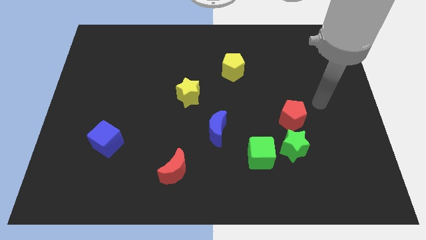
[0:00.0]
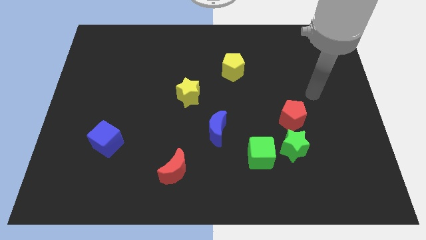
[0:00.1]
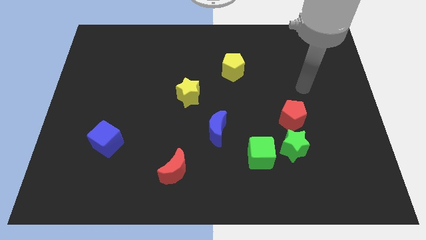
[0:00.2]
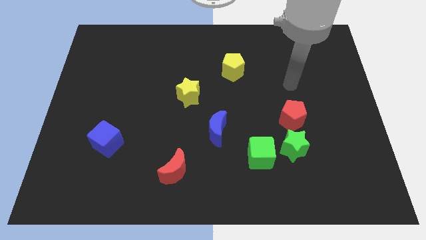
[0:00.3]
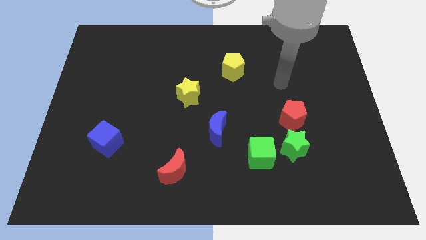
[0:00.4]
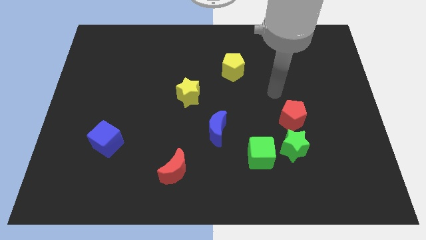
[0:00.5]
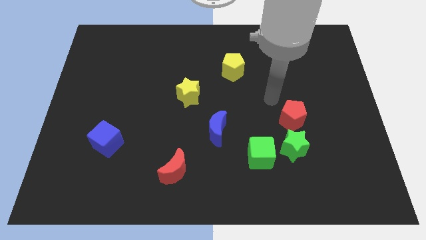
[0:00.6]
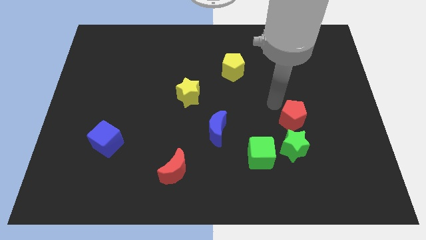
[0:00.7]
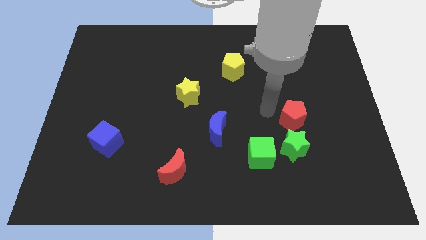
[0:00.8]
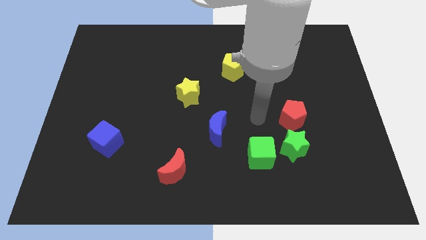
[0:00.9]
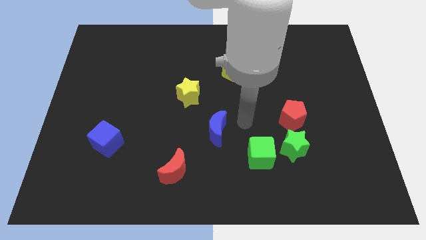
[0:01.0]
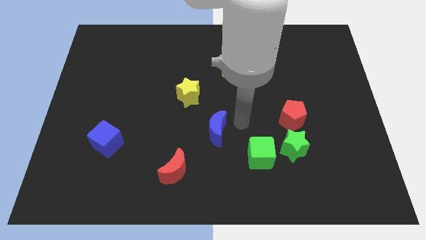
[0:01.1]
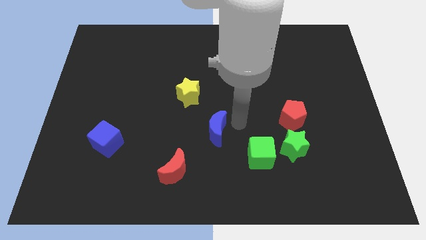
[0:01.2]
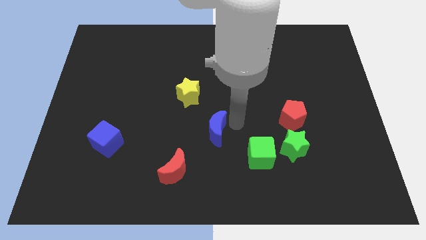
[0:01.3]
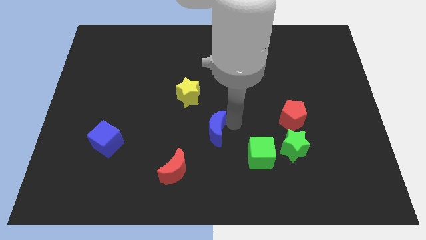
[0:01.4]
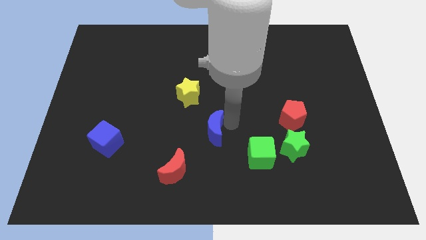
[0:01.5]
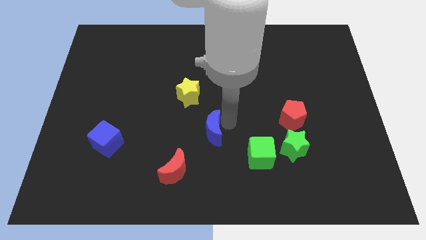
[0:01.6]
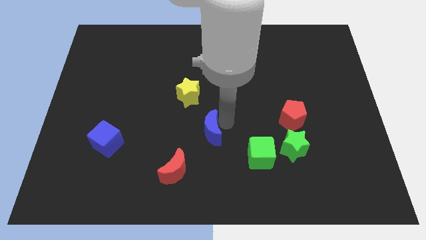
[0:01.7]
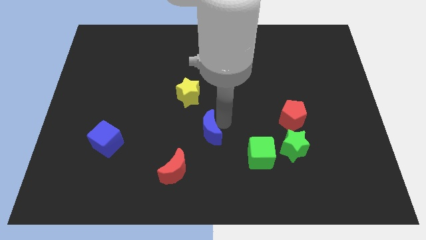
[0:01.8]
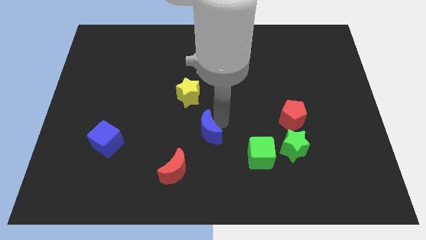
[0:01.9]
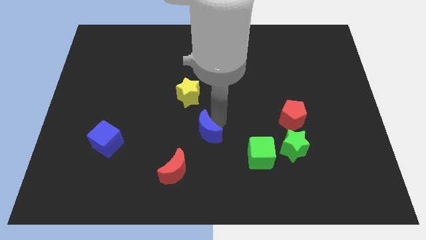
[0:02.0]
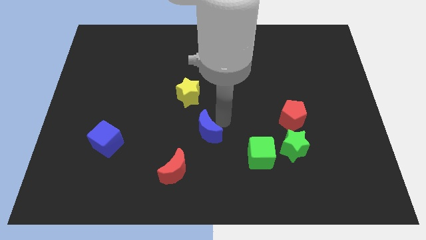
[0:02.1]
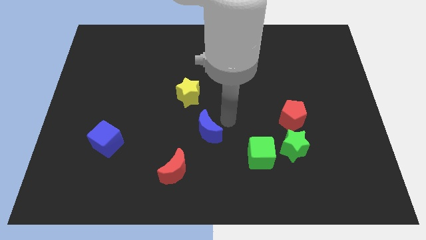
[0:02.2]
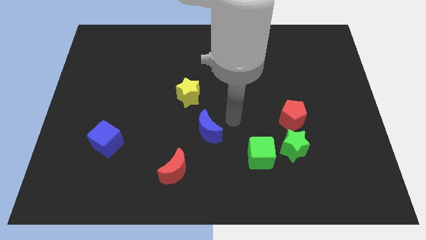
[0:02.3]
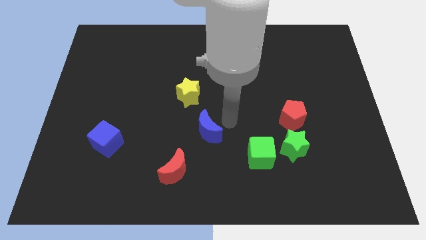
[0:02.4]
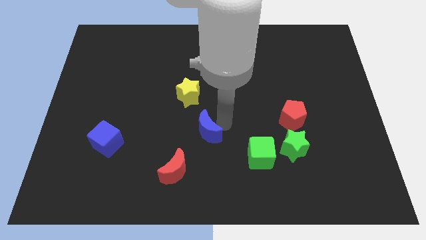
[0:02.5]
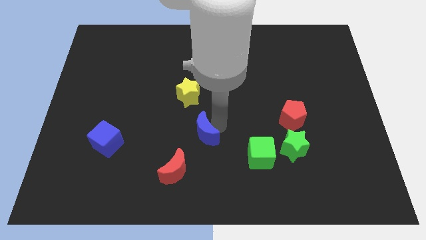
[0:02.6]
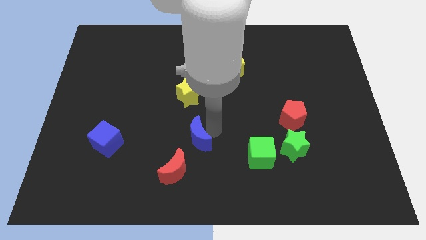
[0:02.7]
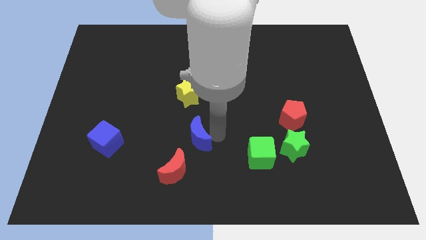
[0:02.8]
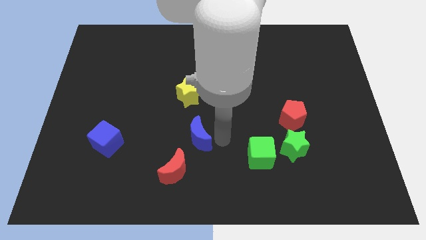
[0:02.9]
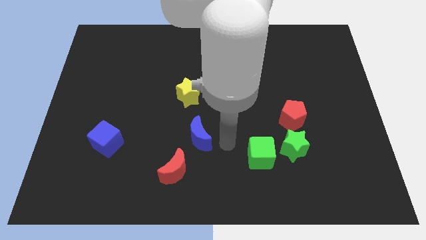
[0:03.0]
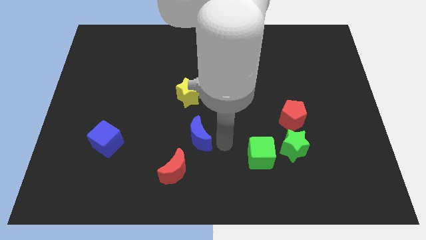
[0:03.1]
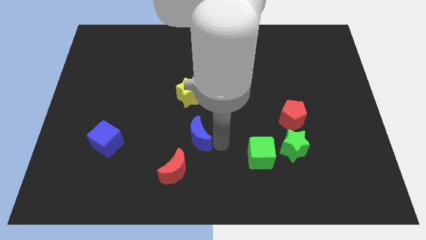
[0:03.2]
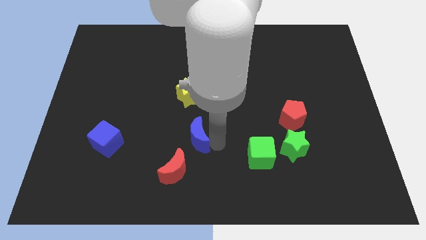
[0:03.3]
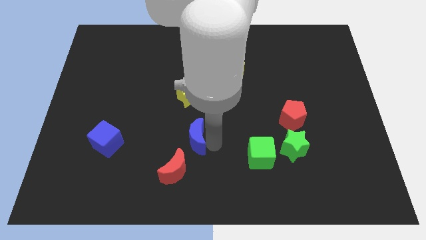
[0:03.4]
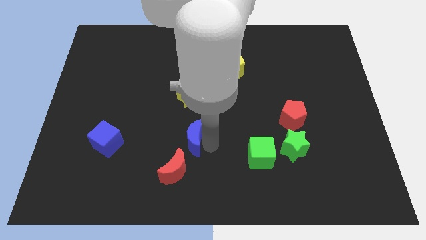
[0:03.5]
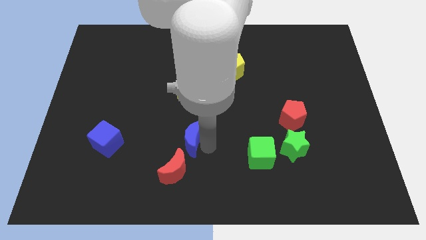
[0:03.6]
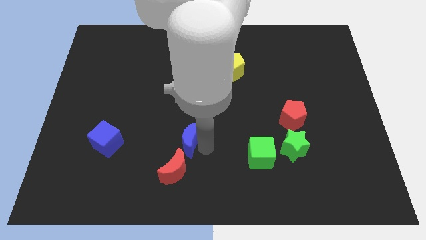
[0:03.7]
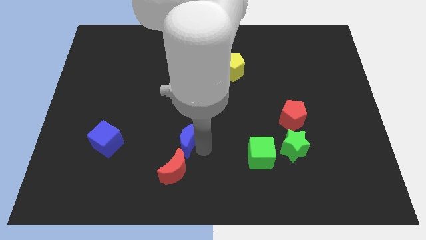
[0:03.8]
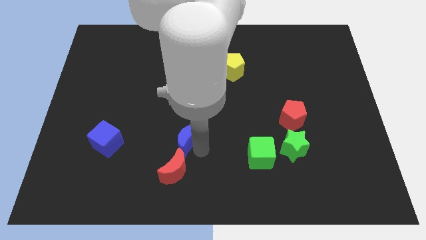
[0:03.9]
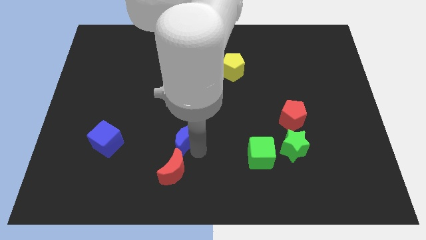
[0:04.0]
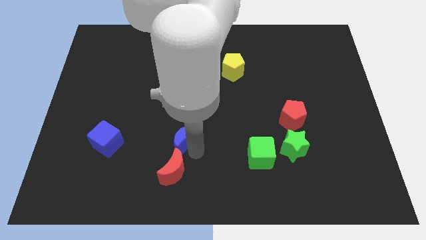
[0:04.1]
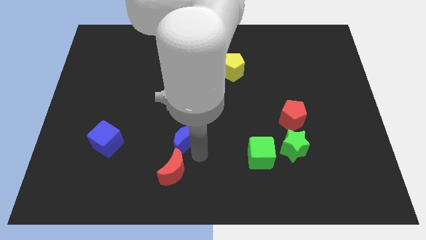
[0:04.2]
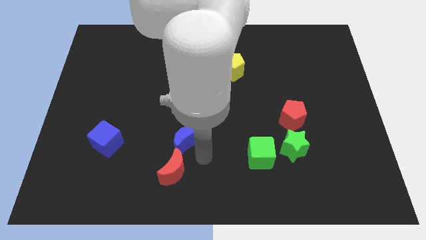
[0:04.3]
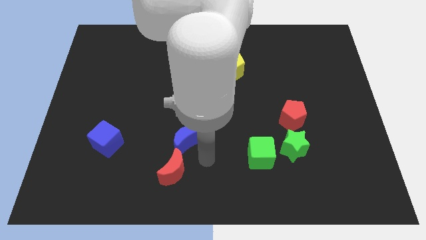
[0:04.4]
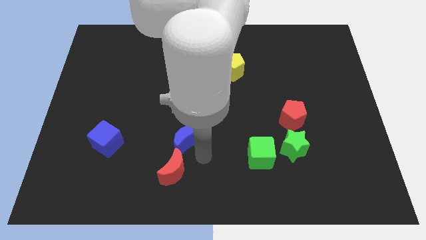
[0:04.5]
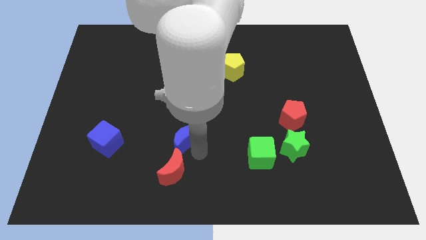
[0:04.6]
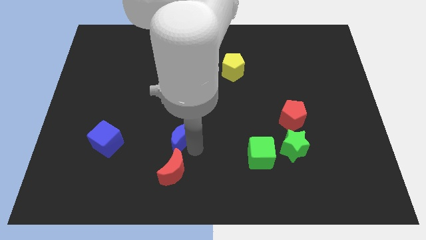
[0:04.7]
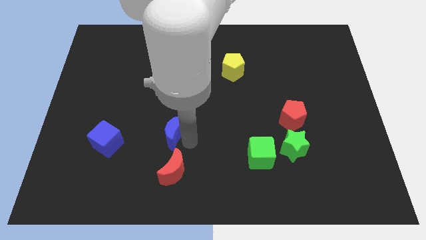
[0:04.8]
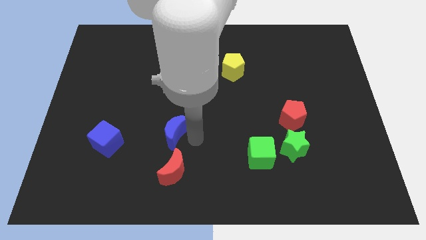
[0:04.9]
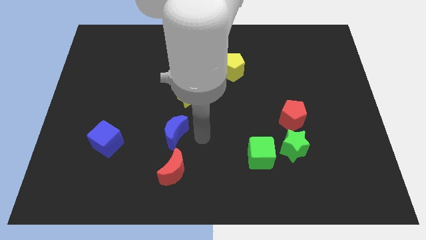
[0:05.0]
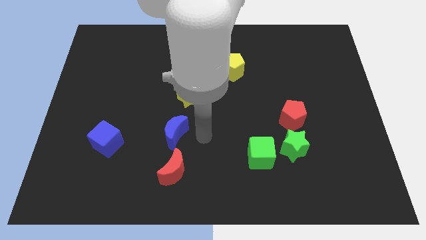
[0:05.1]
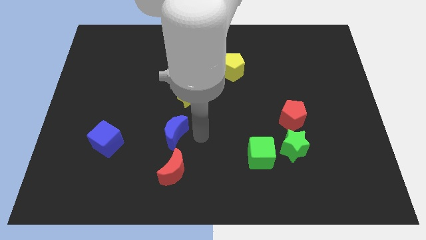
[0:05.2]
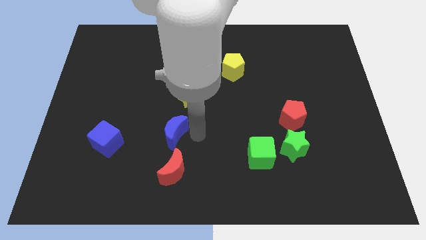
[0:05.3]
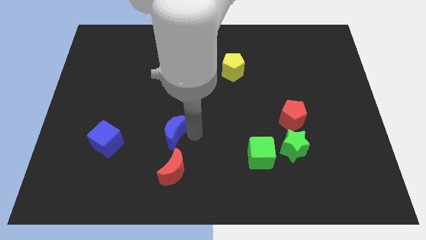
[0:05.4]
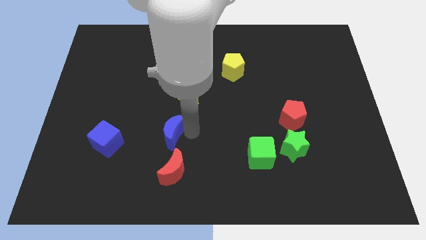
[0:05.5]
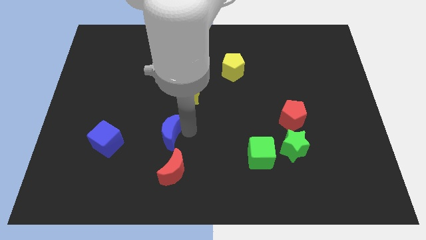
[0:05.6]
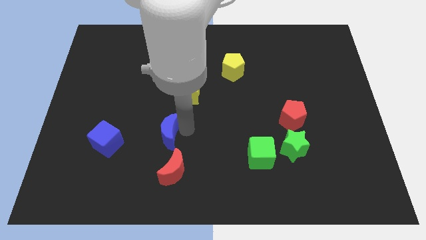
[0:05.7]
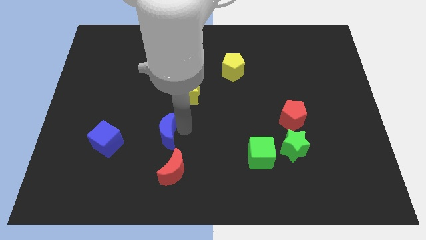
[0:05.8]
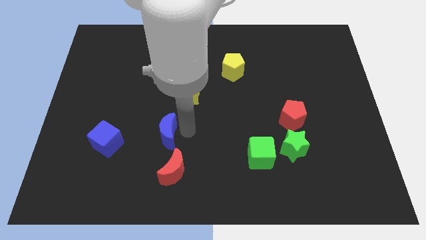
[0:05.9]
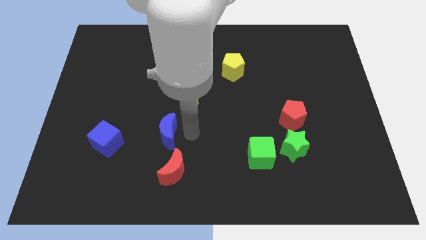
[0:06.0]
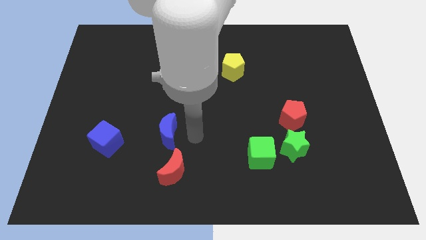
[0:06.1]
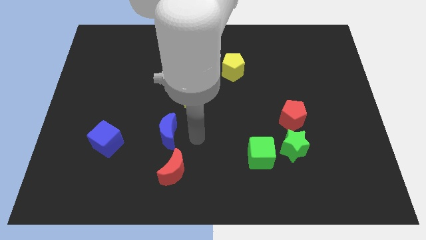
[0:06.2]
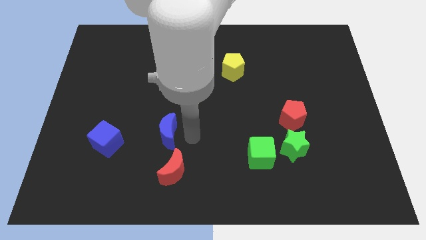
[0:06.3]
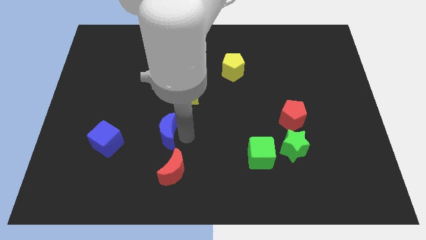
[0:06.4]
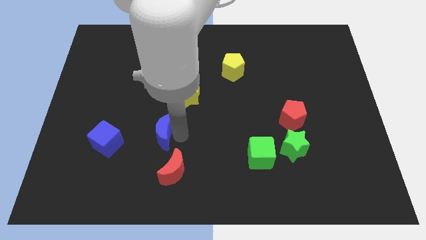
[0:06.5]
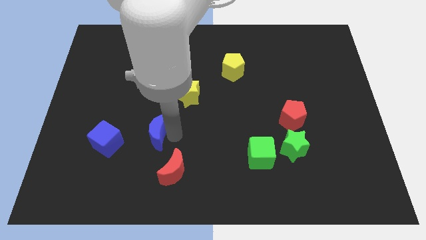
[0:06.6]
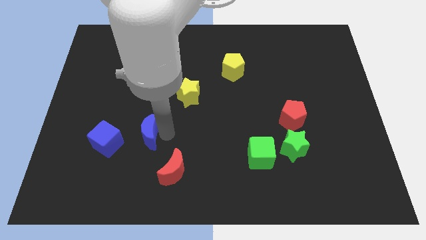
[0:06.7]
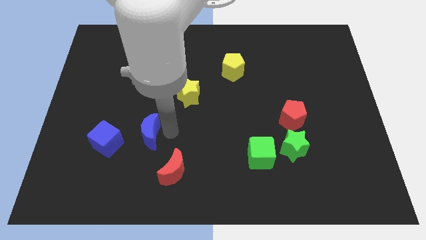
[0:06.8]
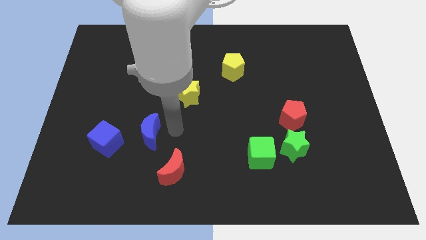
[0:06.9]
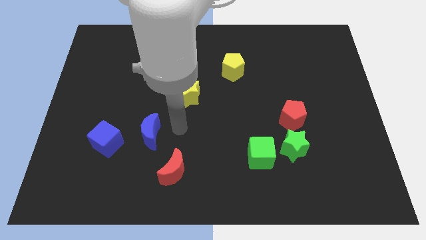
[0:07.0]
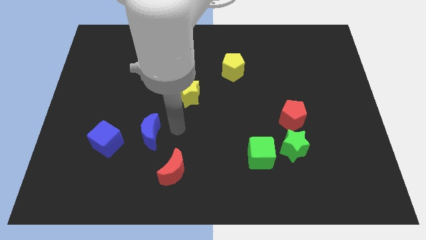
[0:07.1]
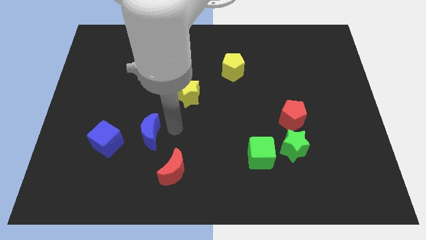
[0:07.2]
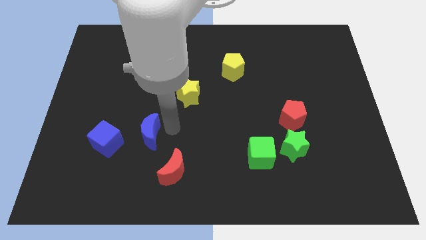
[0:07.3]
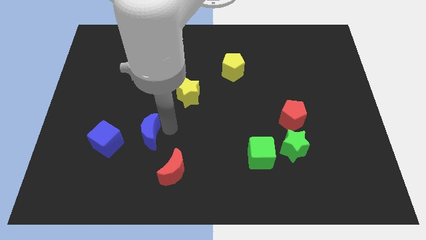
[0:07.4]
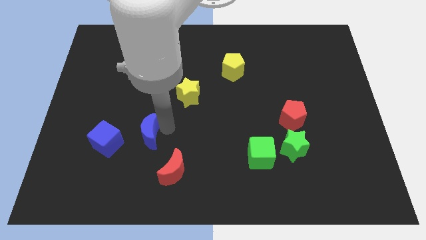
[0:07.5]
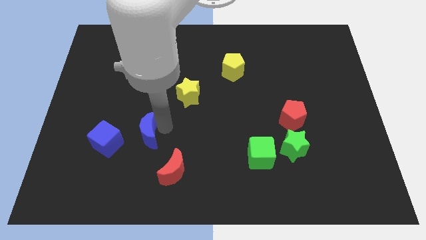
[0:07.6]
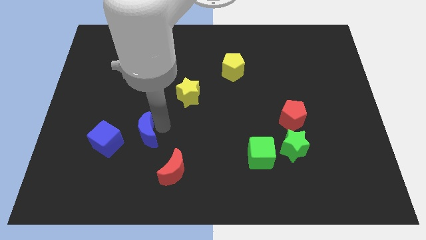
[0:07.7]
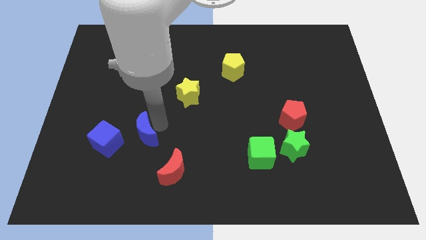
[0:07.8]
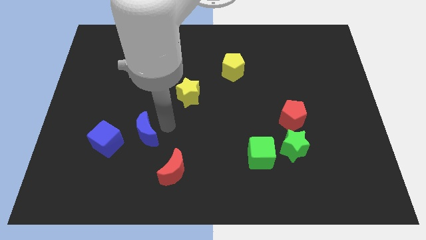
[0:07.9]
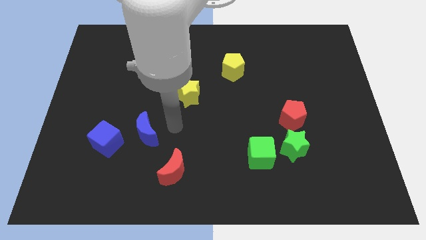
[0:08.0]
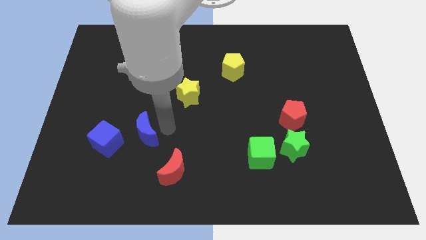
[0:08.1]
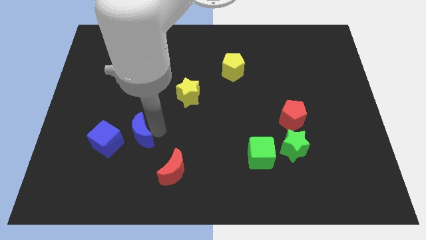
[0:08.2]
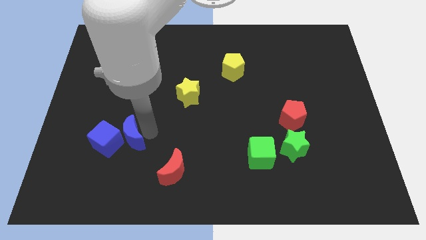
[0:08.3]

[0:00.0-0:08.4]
slide the blue moon next to the blue cube
